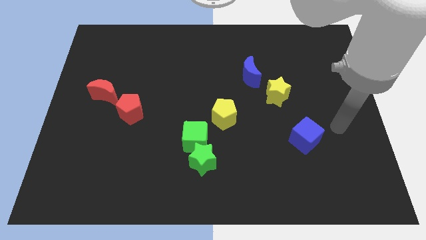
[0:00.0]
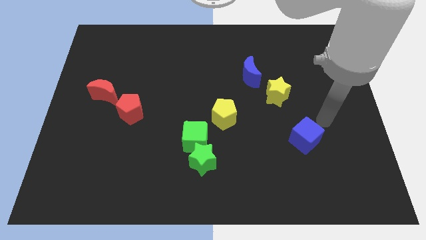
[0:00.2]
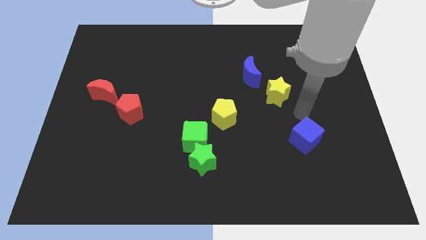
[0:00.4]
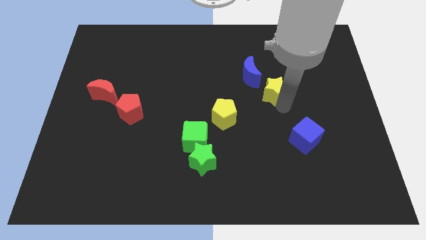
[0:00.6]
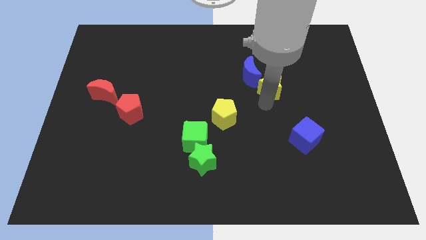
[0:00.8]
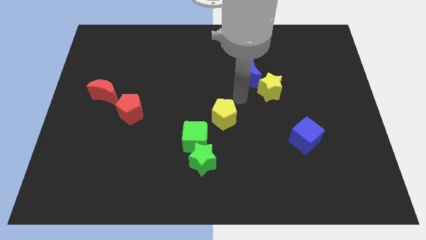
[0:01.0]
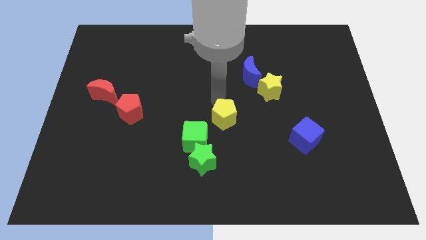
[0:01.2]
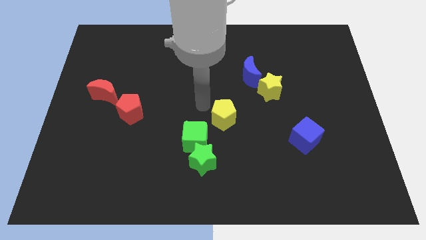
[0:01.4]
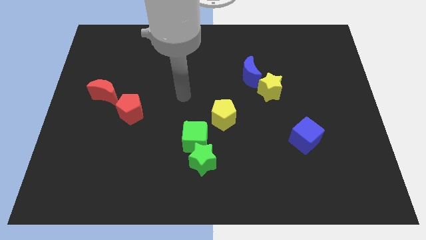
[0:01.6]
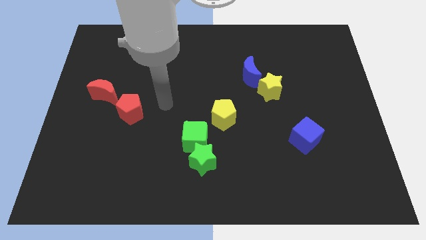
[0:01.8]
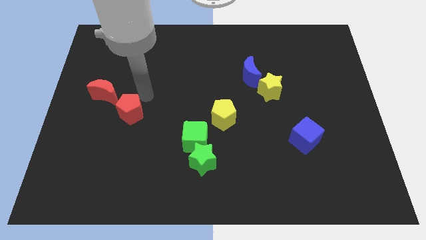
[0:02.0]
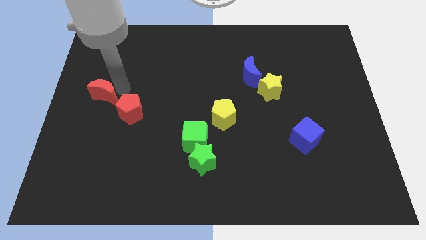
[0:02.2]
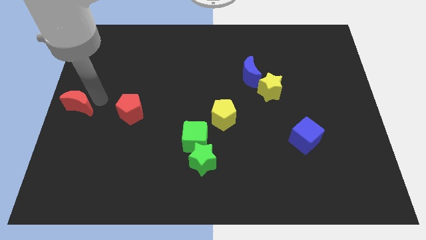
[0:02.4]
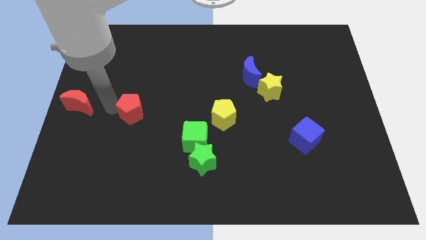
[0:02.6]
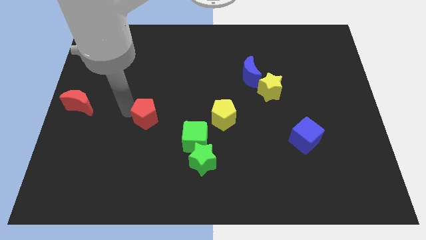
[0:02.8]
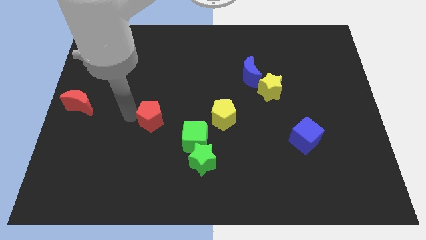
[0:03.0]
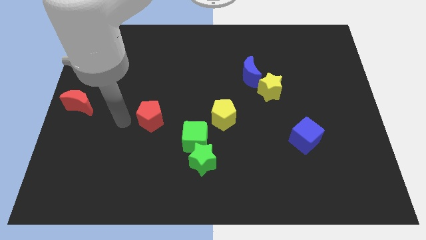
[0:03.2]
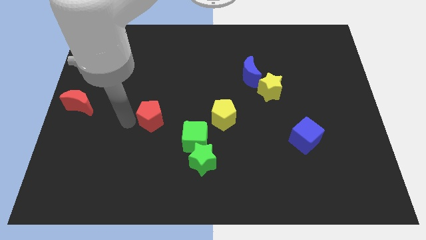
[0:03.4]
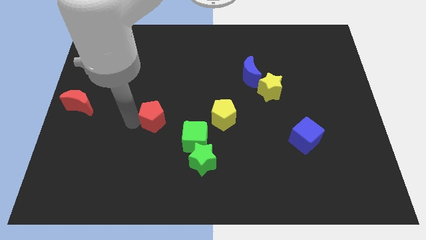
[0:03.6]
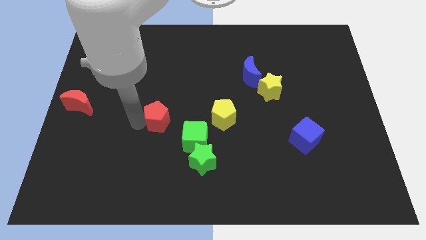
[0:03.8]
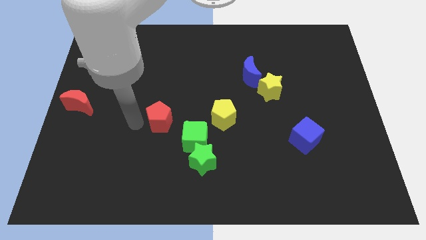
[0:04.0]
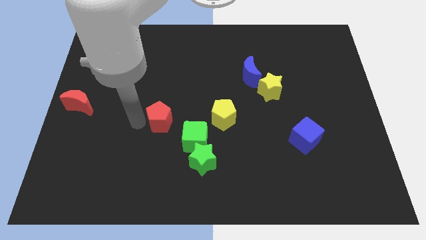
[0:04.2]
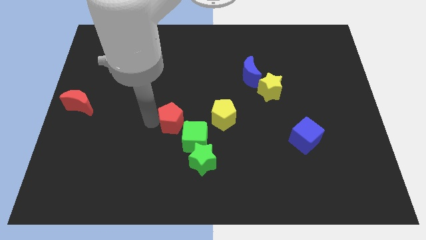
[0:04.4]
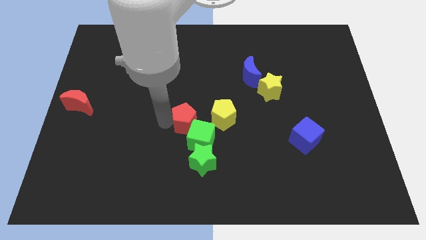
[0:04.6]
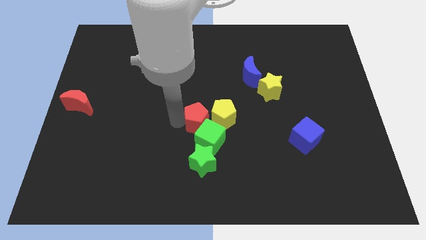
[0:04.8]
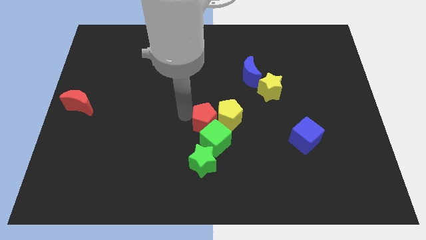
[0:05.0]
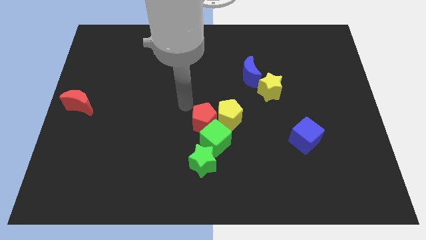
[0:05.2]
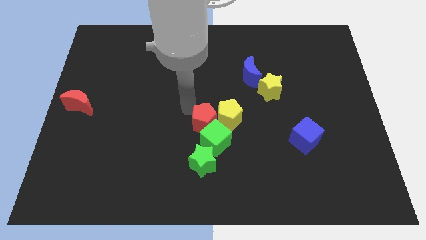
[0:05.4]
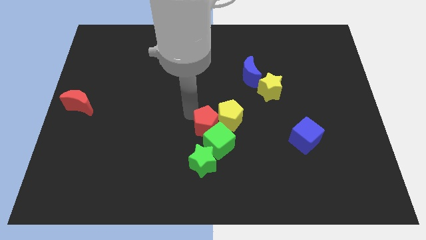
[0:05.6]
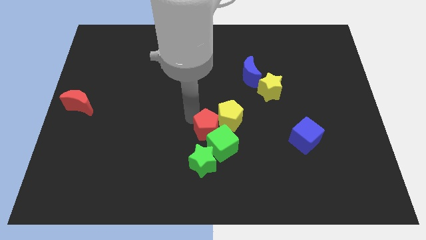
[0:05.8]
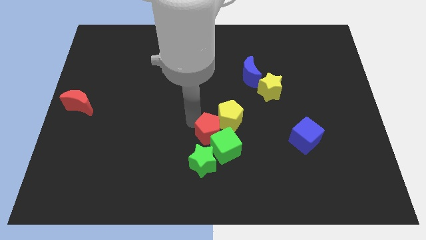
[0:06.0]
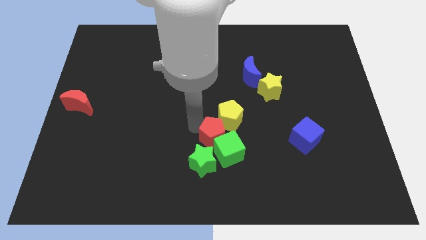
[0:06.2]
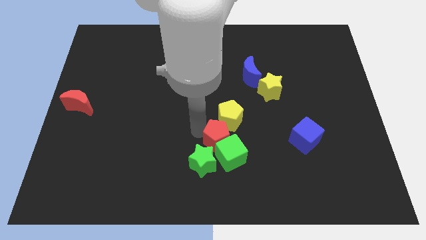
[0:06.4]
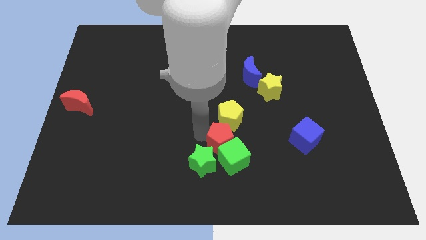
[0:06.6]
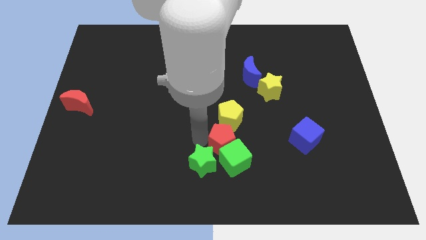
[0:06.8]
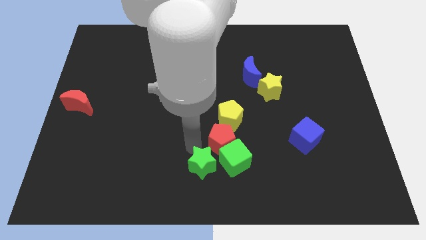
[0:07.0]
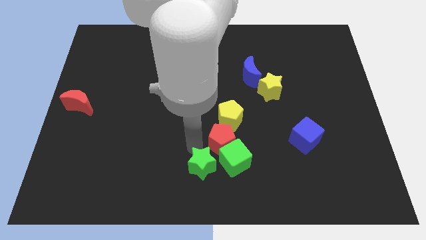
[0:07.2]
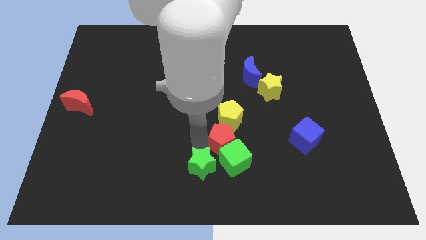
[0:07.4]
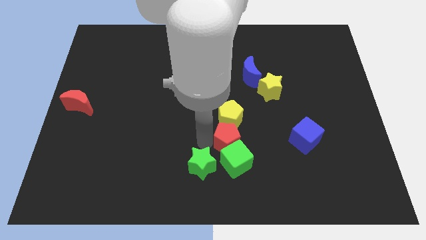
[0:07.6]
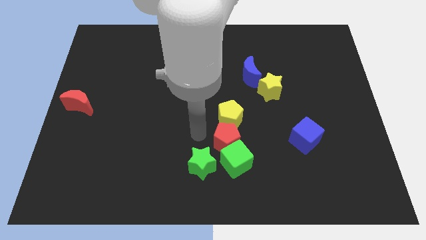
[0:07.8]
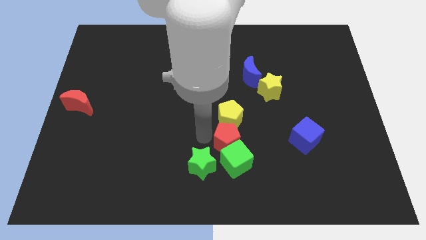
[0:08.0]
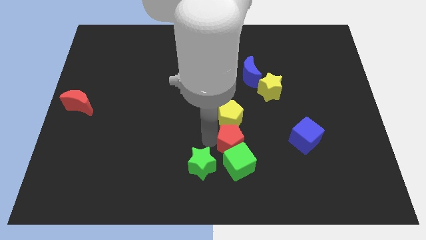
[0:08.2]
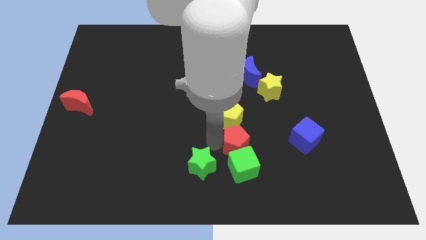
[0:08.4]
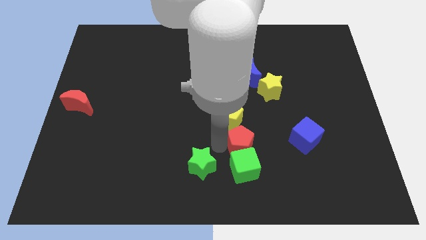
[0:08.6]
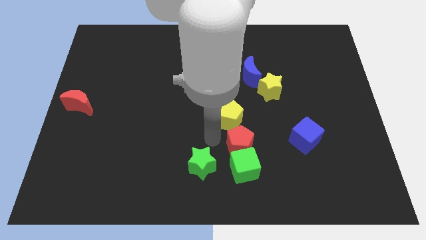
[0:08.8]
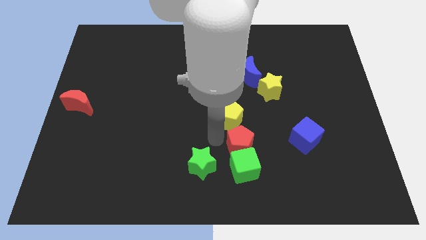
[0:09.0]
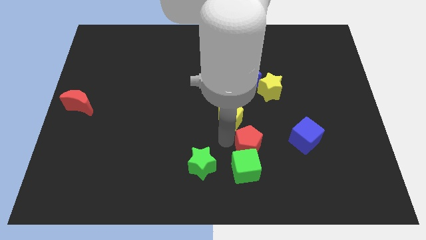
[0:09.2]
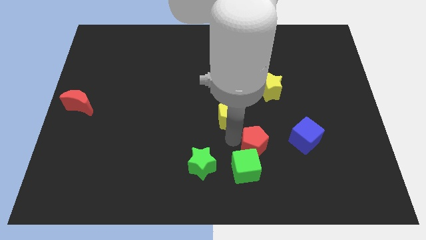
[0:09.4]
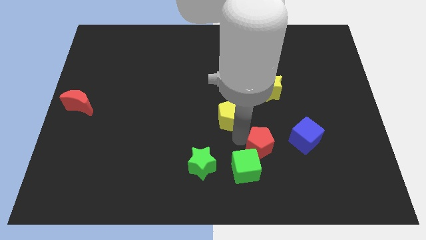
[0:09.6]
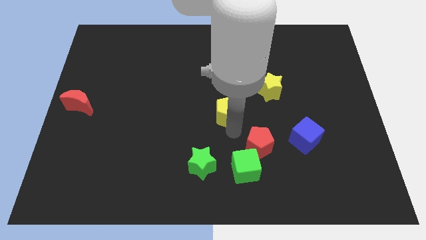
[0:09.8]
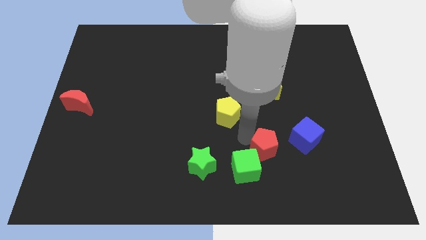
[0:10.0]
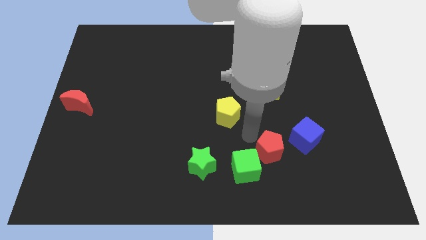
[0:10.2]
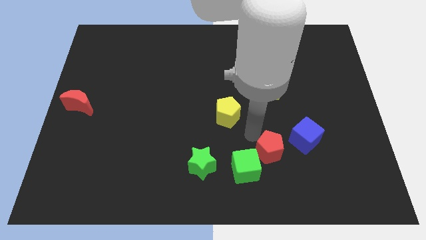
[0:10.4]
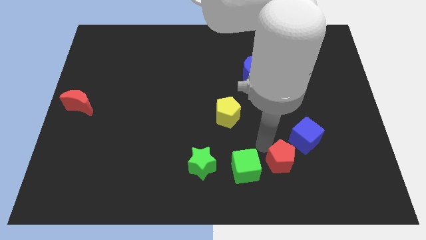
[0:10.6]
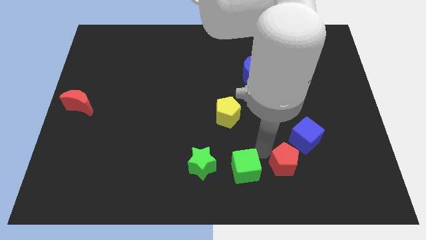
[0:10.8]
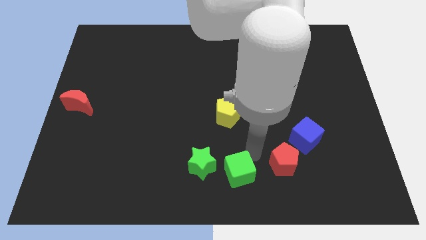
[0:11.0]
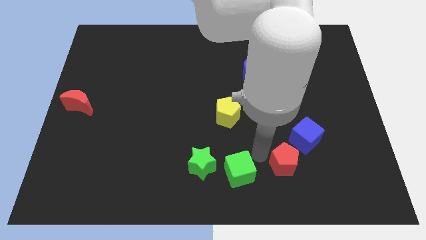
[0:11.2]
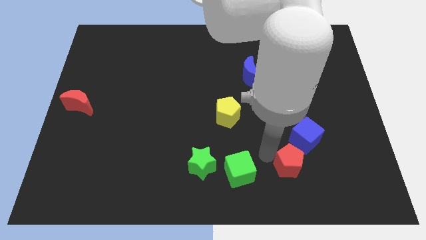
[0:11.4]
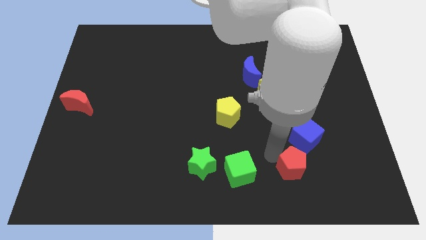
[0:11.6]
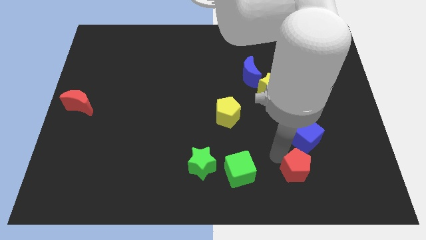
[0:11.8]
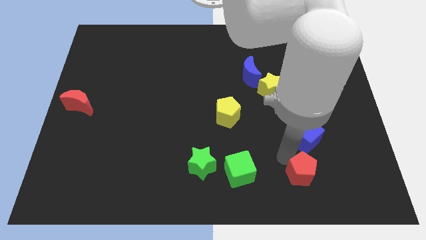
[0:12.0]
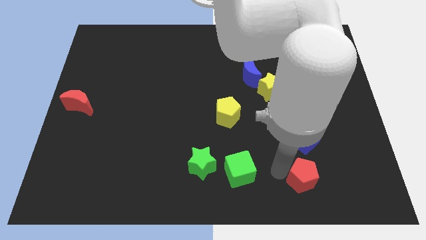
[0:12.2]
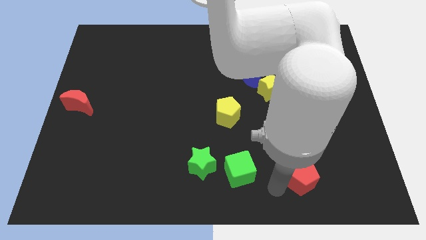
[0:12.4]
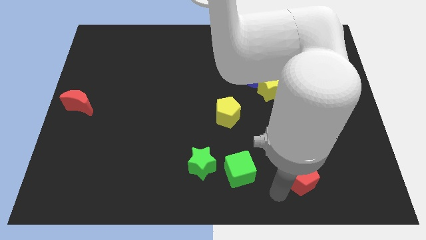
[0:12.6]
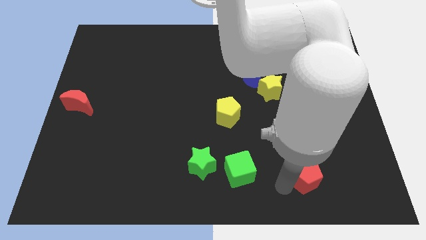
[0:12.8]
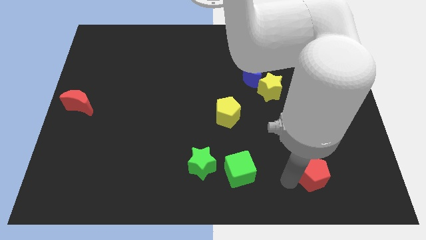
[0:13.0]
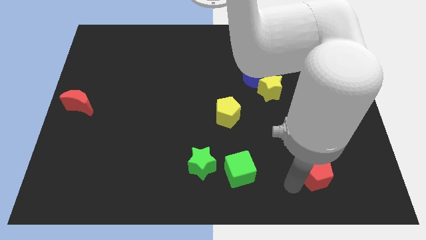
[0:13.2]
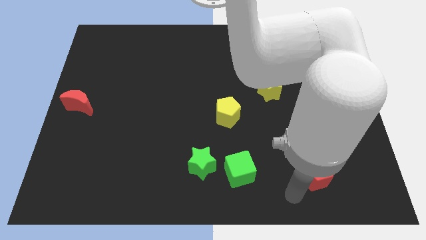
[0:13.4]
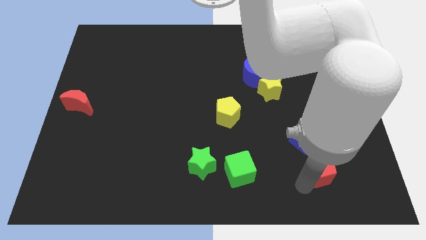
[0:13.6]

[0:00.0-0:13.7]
slide the red pentagon to the bottom right side of the blue cube
